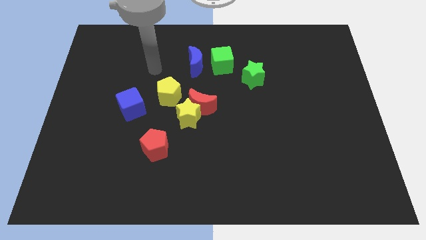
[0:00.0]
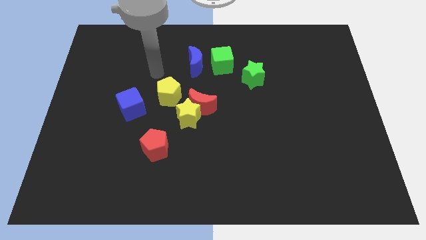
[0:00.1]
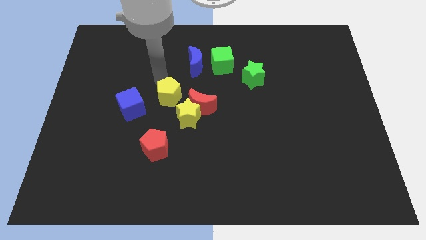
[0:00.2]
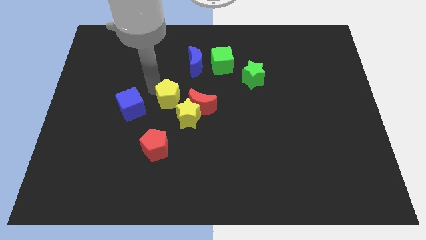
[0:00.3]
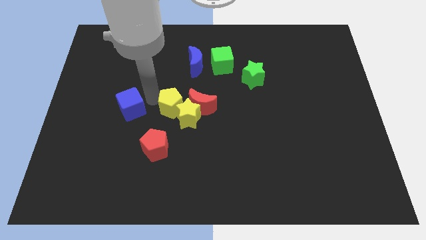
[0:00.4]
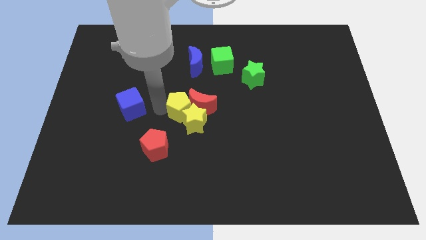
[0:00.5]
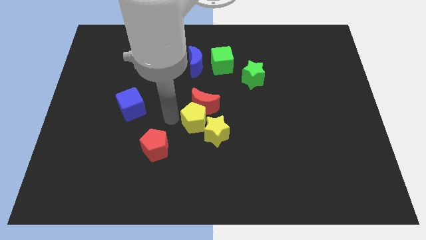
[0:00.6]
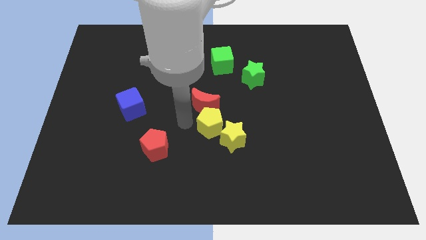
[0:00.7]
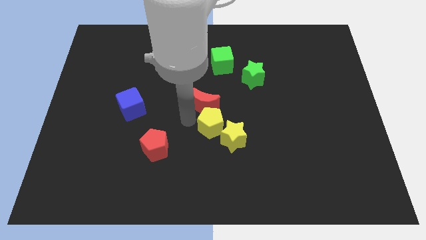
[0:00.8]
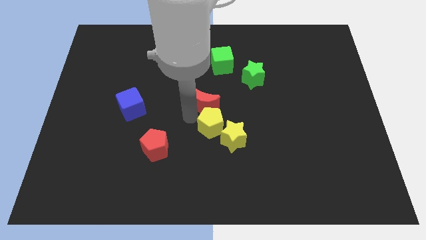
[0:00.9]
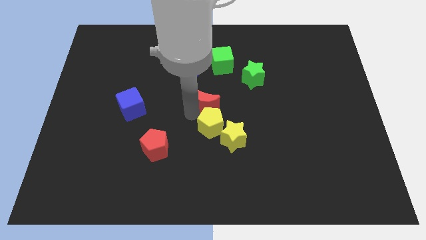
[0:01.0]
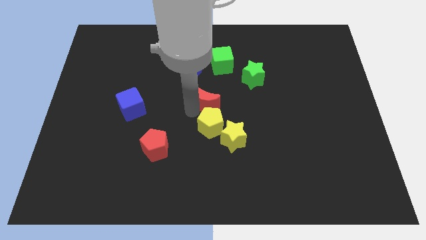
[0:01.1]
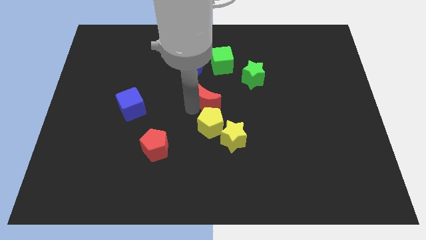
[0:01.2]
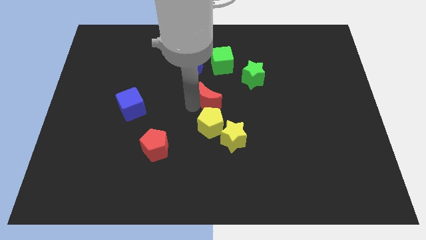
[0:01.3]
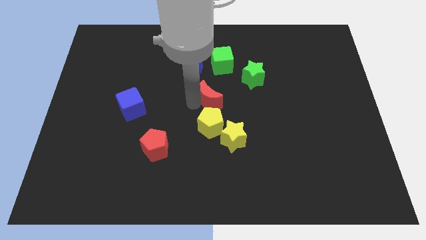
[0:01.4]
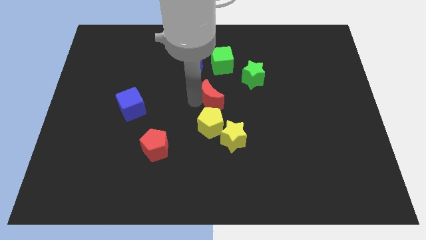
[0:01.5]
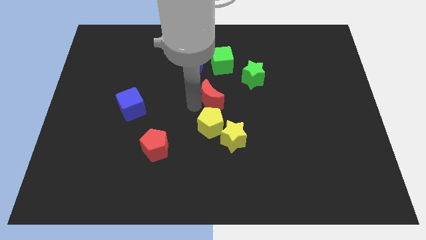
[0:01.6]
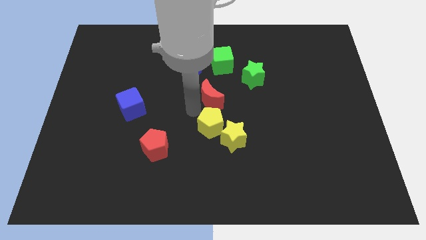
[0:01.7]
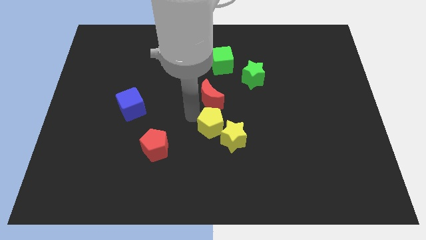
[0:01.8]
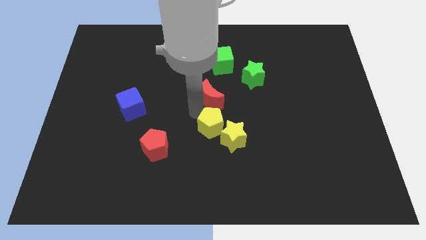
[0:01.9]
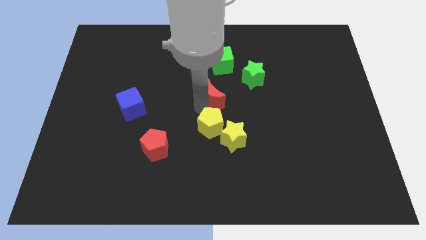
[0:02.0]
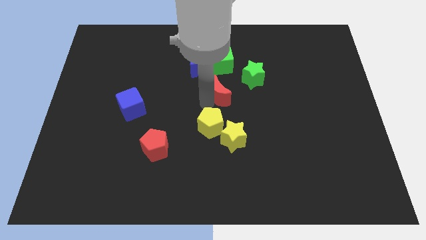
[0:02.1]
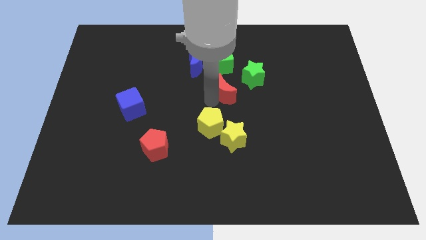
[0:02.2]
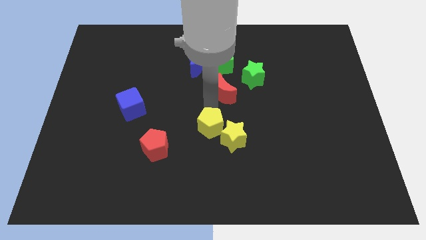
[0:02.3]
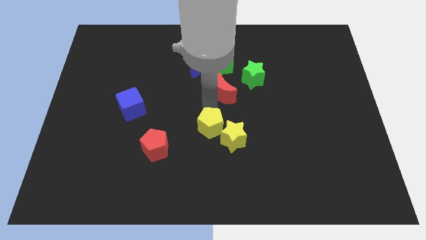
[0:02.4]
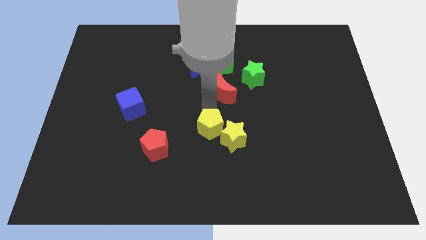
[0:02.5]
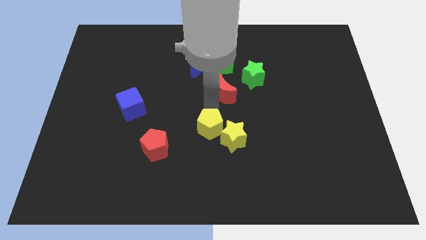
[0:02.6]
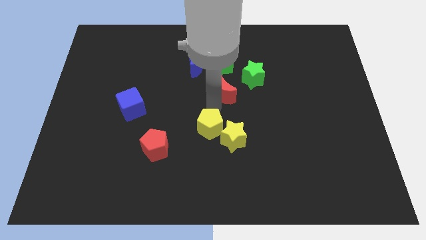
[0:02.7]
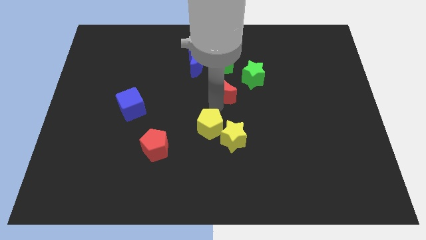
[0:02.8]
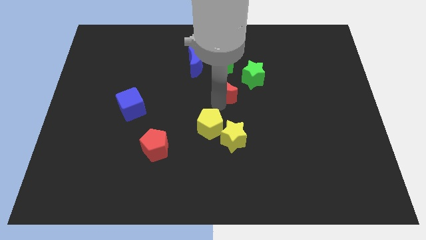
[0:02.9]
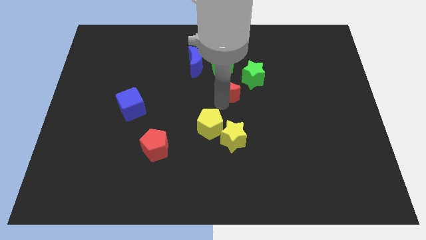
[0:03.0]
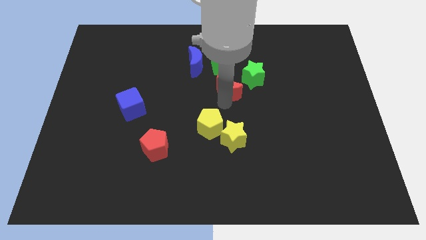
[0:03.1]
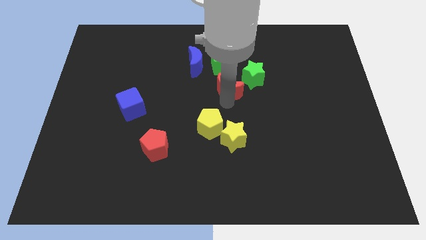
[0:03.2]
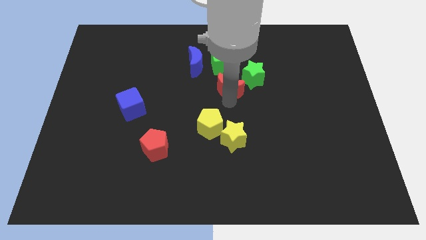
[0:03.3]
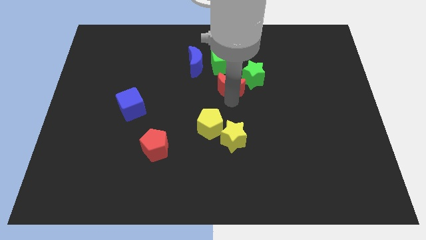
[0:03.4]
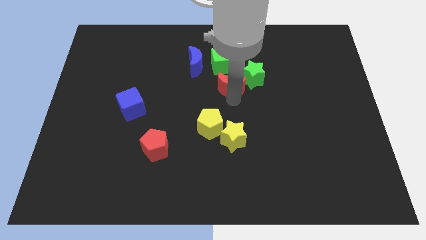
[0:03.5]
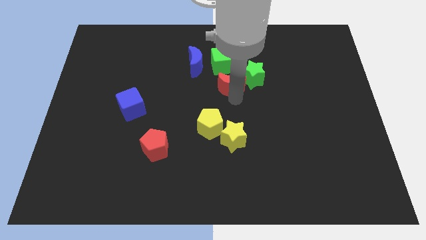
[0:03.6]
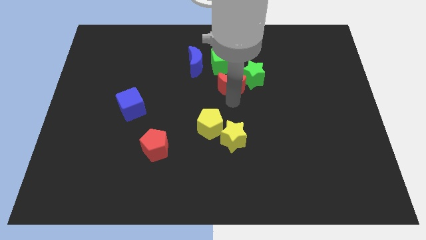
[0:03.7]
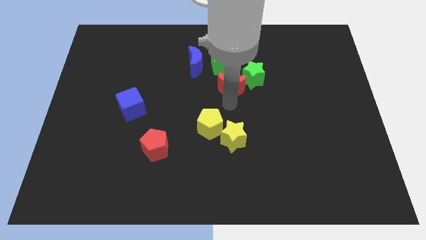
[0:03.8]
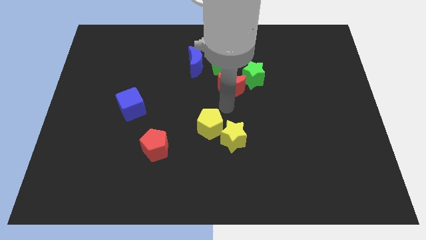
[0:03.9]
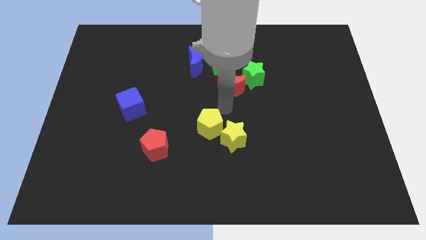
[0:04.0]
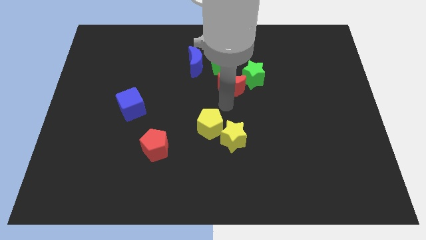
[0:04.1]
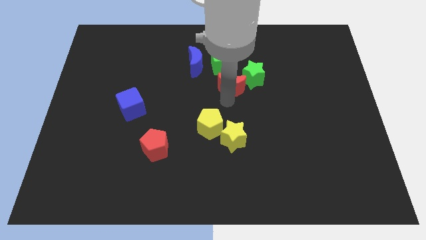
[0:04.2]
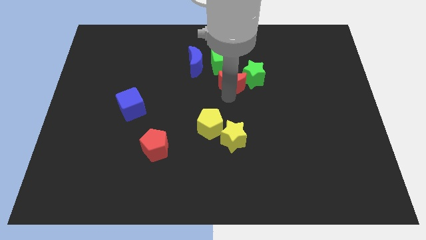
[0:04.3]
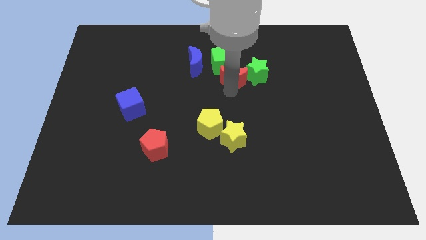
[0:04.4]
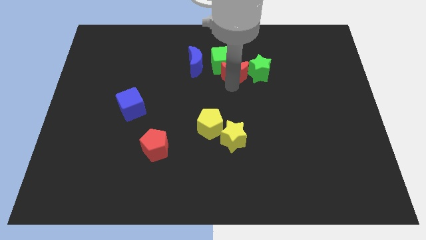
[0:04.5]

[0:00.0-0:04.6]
slide the red moon to the right side of the blue moon

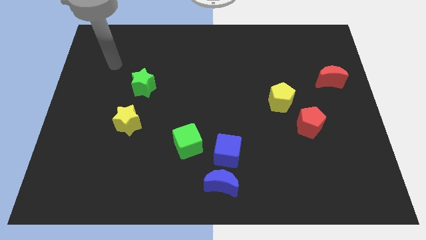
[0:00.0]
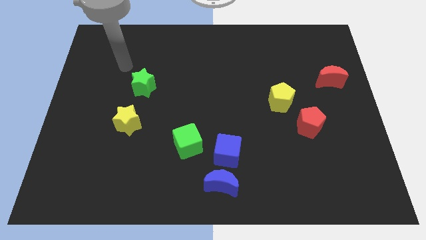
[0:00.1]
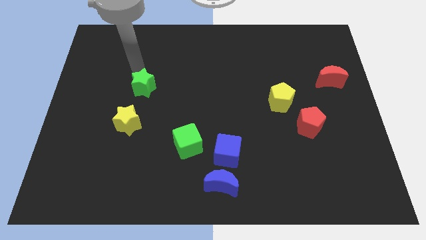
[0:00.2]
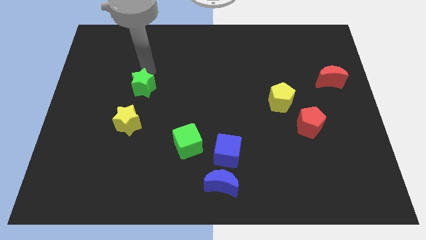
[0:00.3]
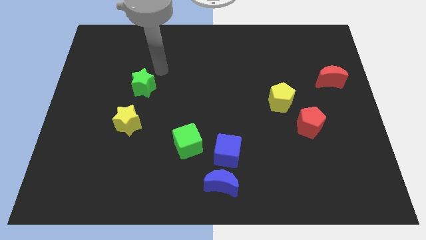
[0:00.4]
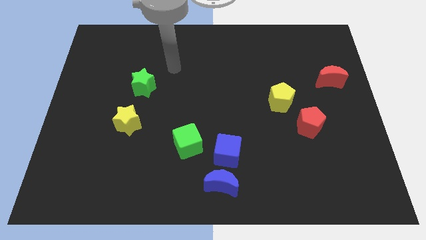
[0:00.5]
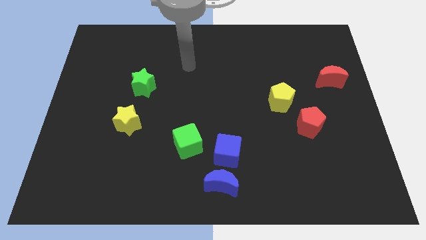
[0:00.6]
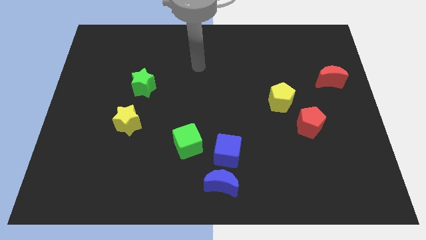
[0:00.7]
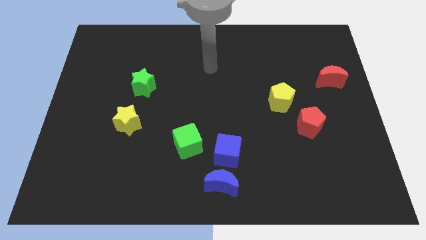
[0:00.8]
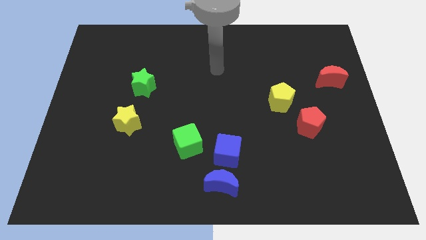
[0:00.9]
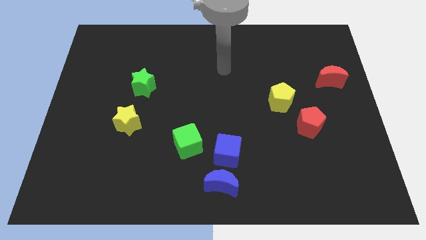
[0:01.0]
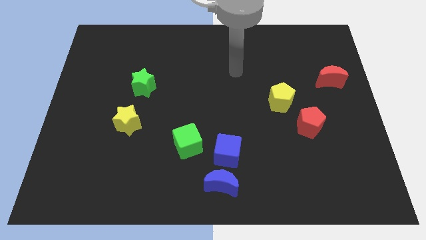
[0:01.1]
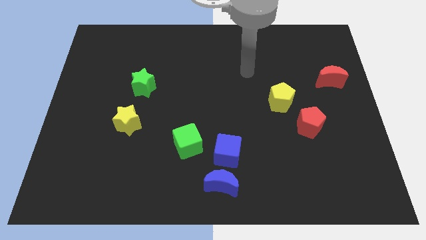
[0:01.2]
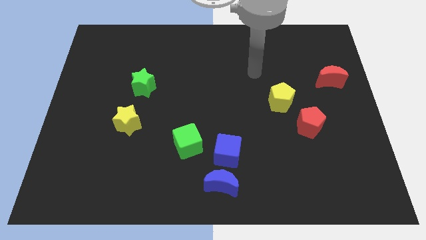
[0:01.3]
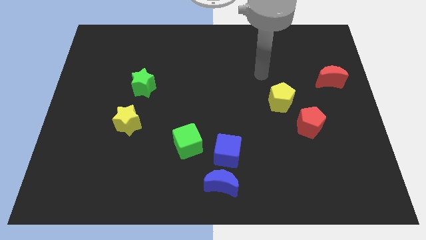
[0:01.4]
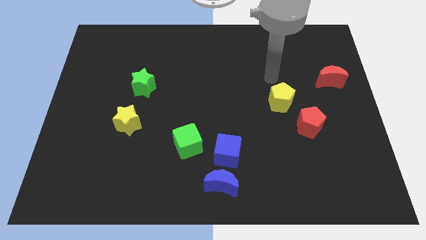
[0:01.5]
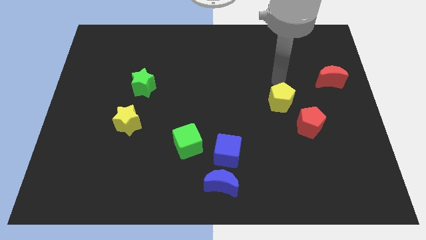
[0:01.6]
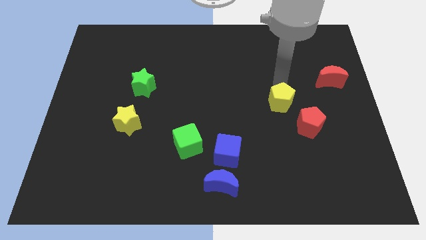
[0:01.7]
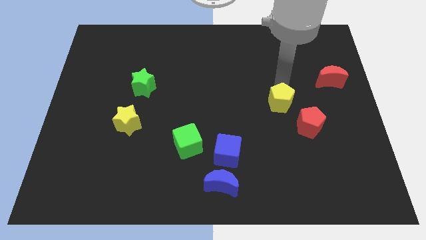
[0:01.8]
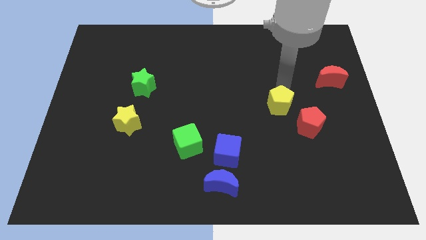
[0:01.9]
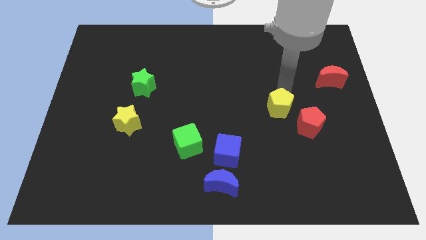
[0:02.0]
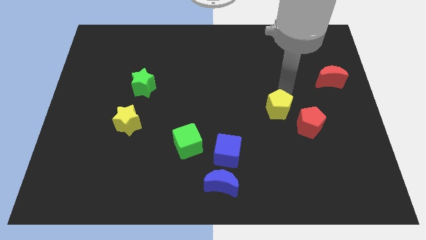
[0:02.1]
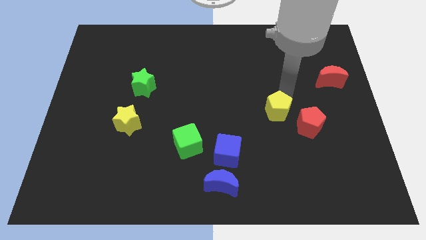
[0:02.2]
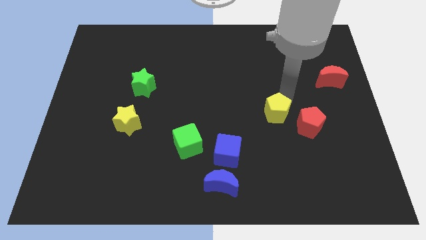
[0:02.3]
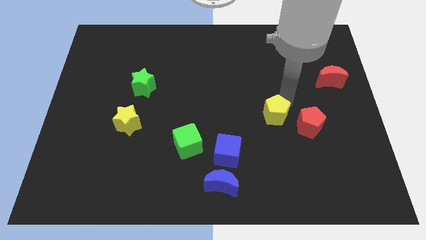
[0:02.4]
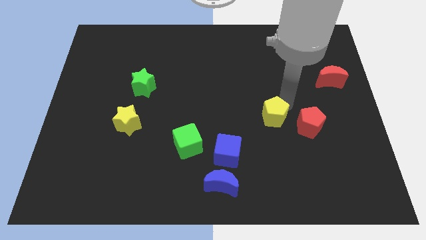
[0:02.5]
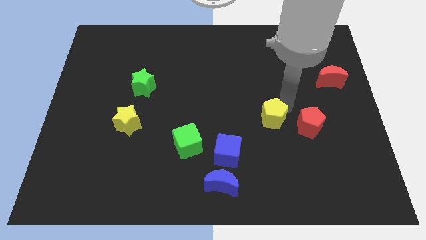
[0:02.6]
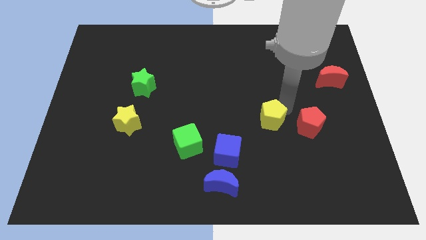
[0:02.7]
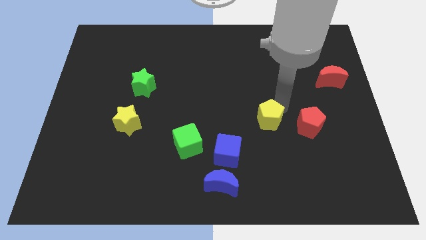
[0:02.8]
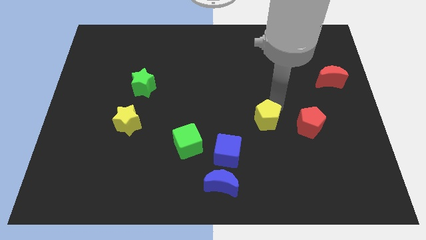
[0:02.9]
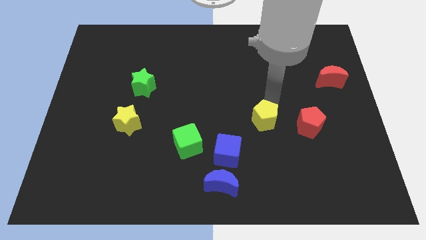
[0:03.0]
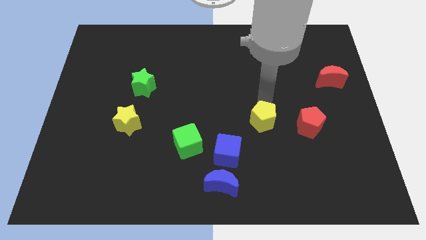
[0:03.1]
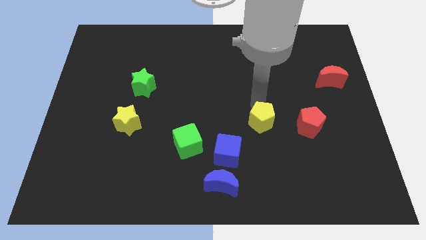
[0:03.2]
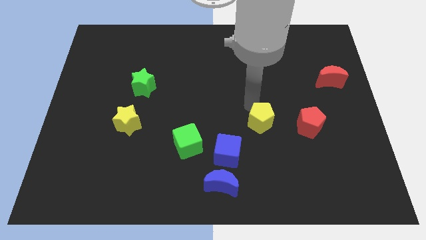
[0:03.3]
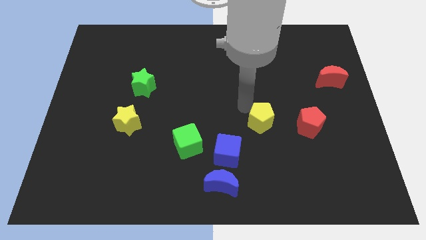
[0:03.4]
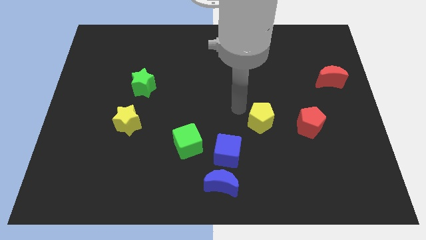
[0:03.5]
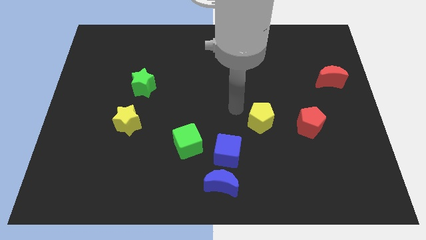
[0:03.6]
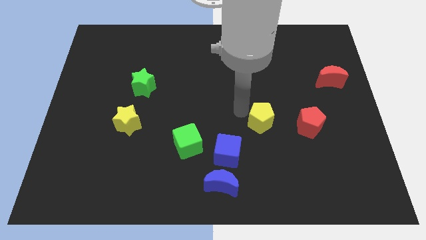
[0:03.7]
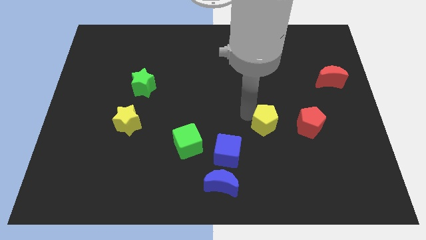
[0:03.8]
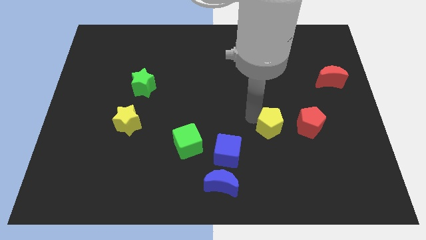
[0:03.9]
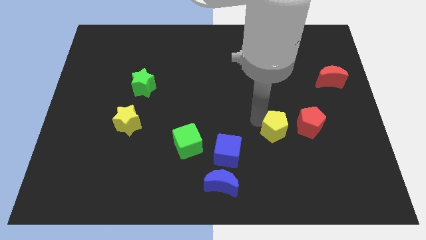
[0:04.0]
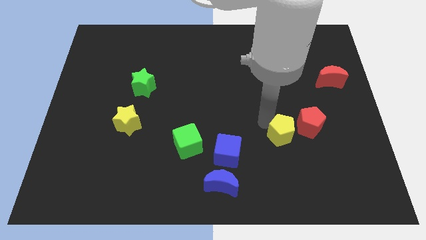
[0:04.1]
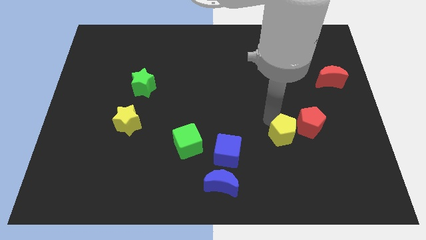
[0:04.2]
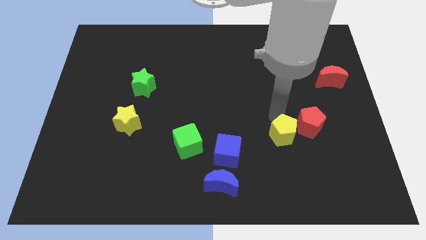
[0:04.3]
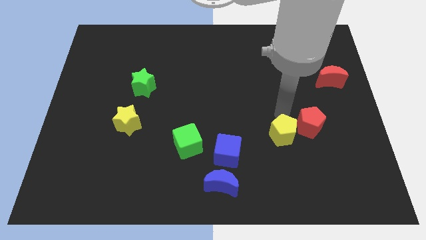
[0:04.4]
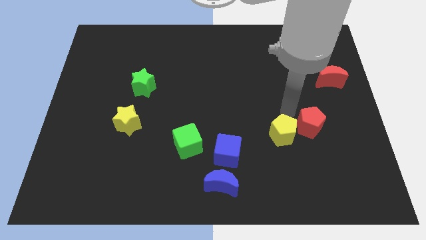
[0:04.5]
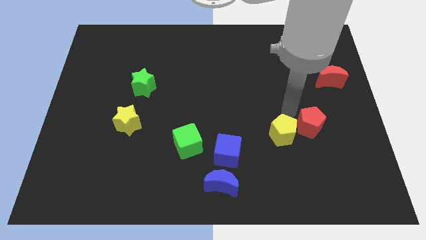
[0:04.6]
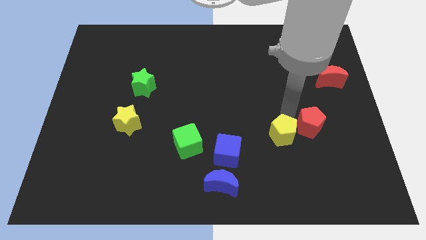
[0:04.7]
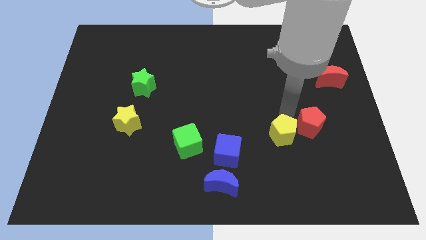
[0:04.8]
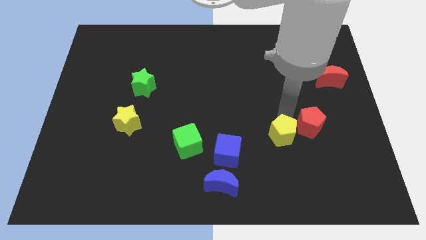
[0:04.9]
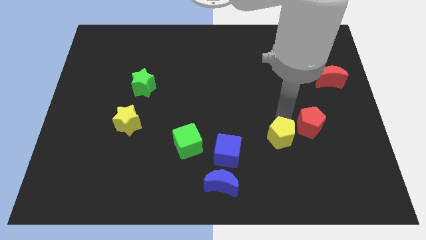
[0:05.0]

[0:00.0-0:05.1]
put the yellow pentagon just right of the blue cube
